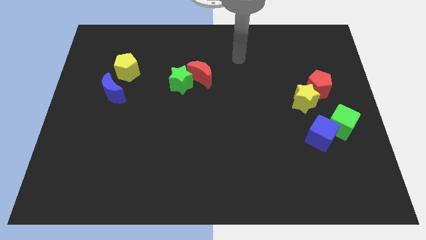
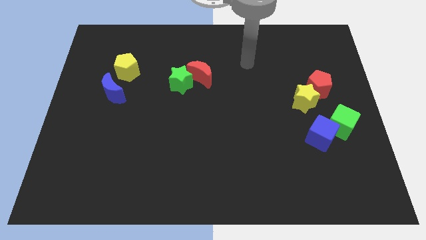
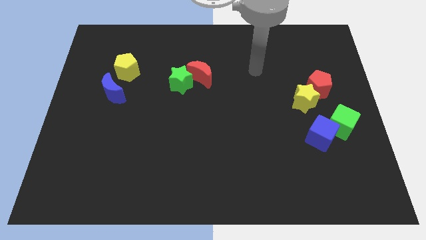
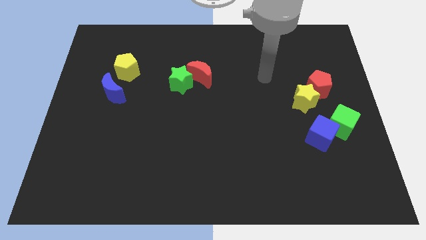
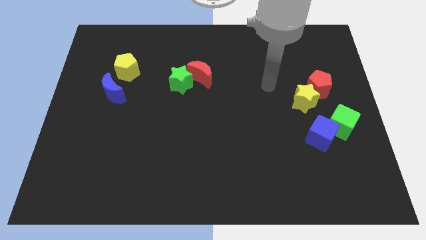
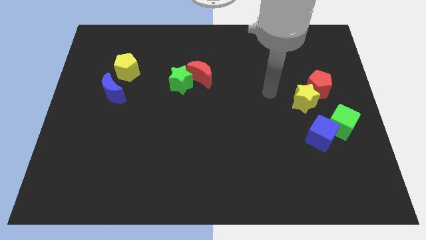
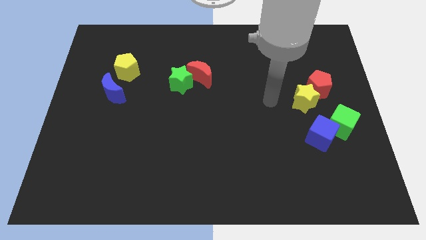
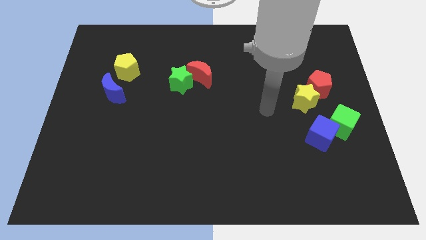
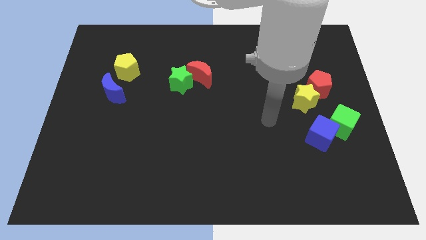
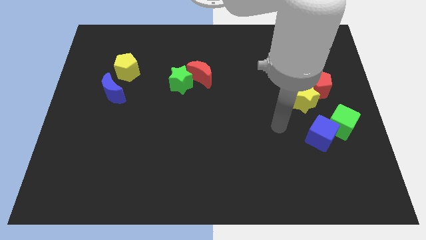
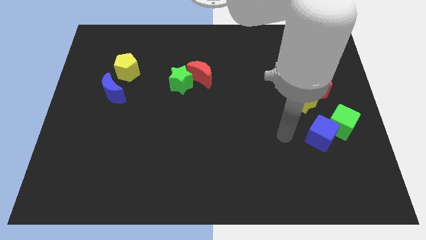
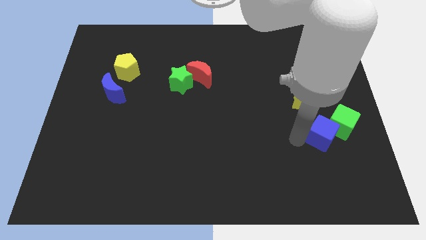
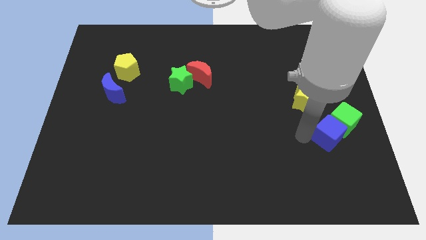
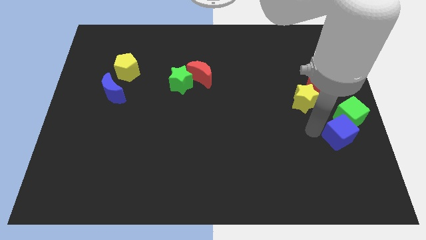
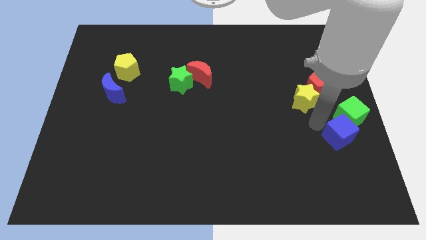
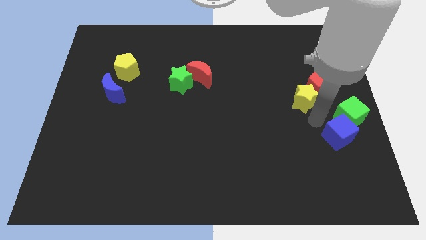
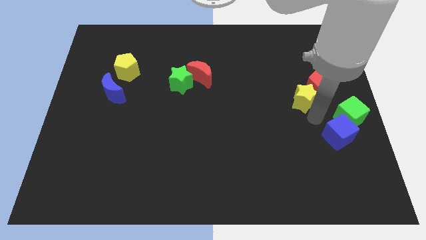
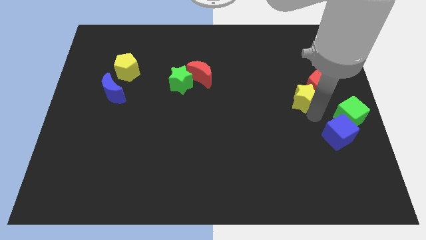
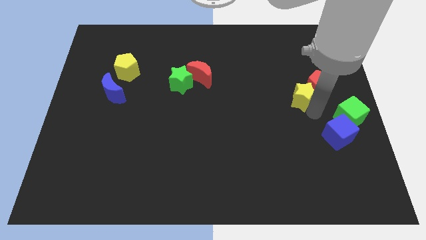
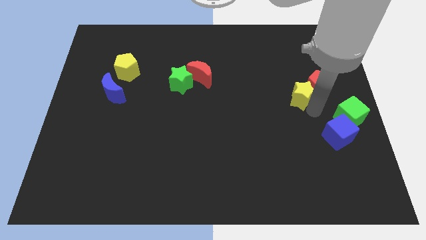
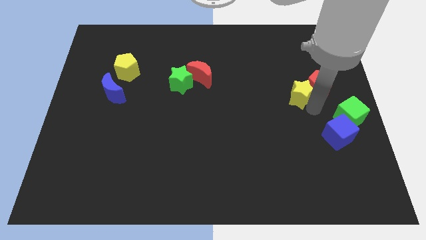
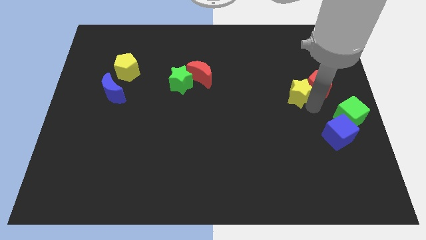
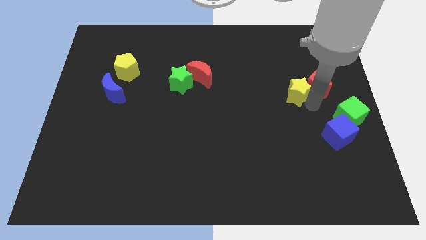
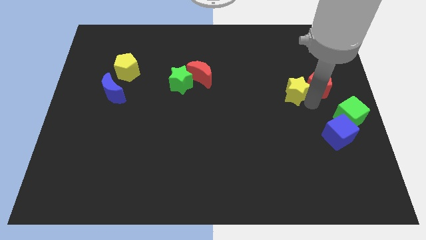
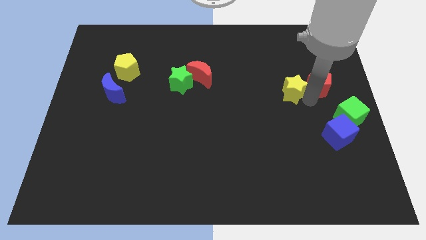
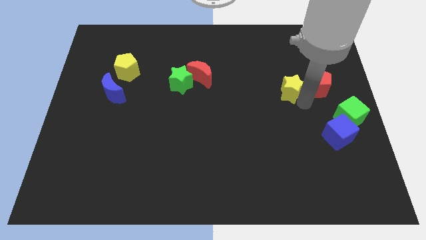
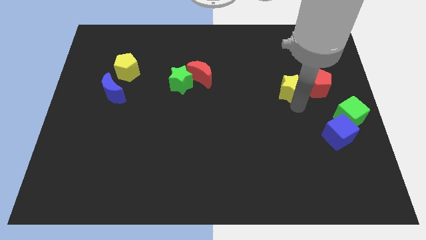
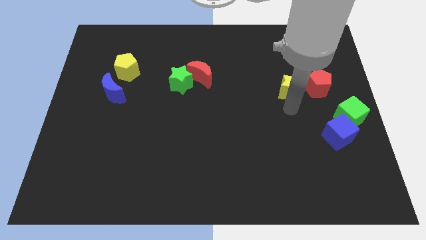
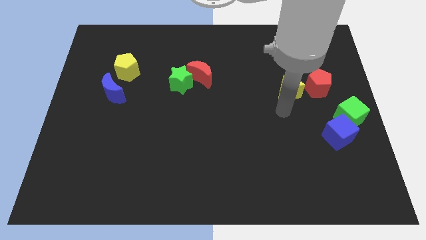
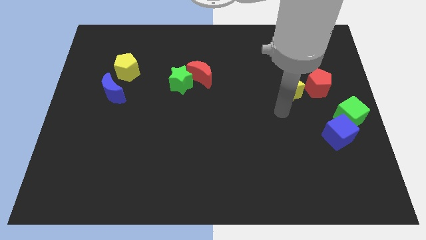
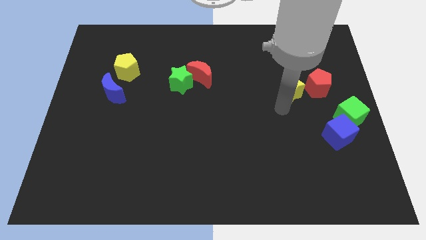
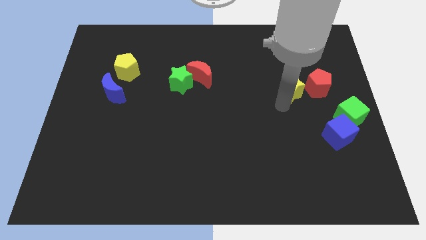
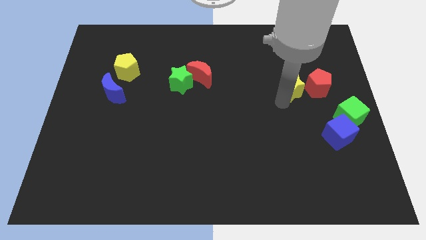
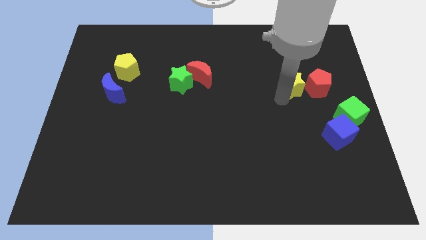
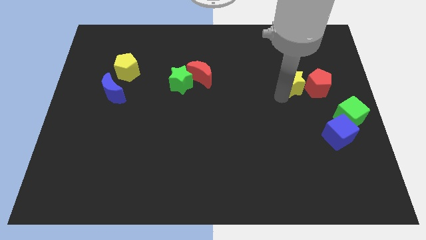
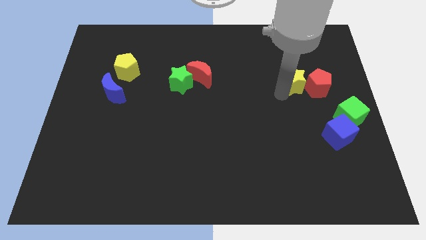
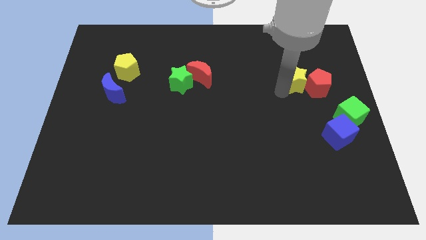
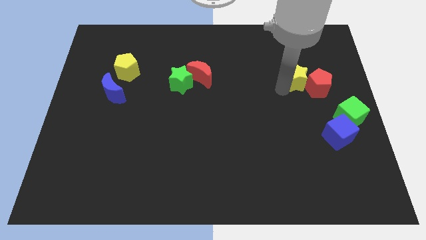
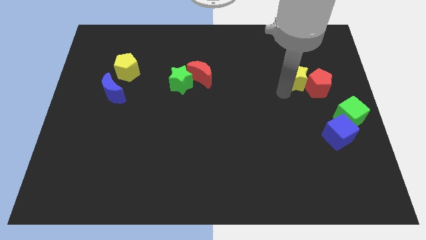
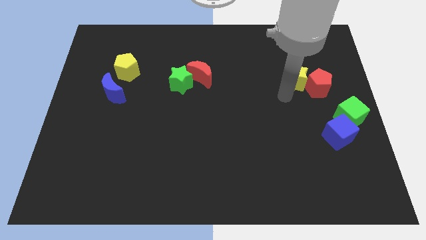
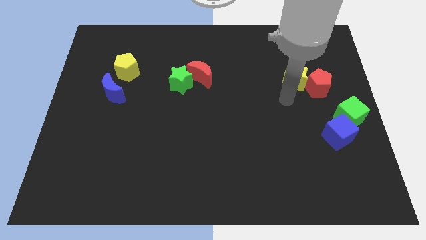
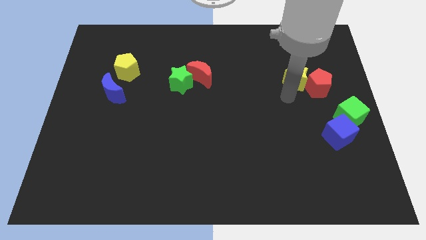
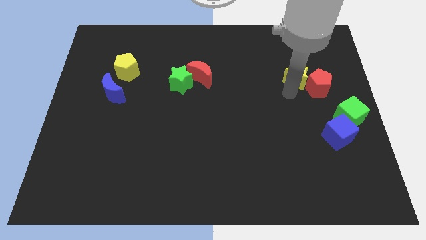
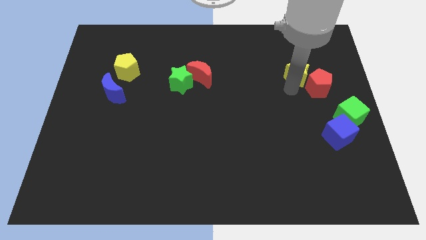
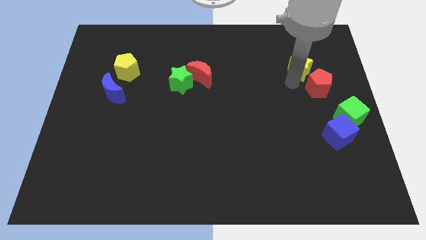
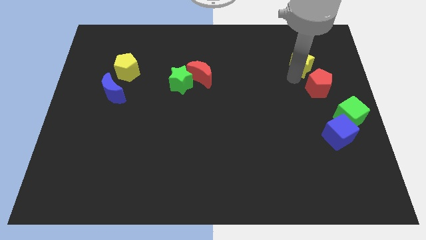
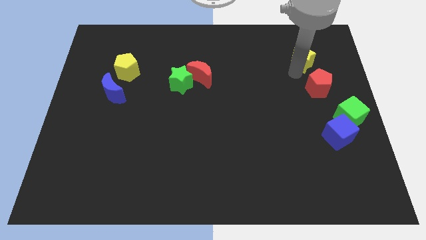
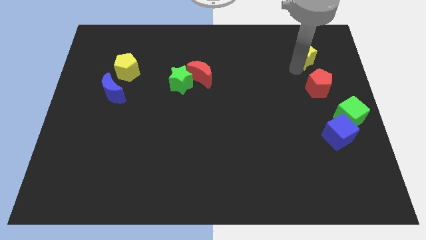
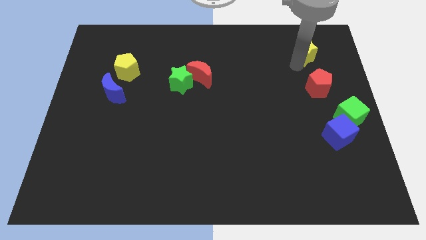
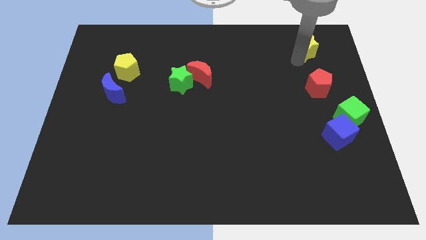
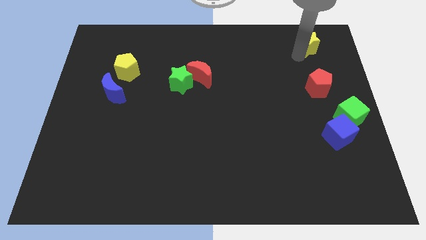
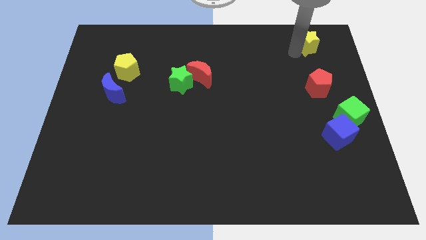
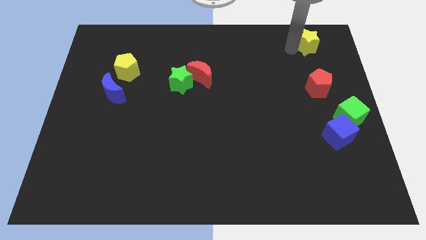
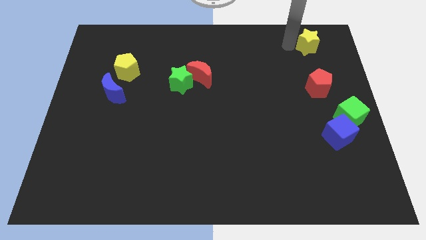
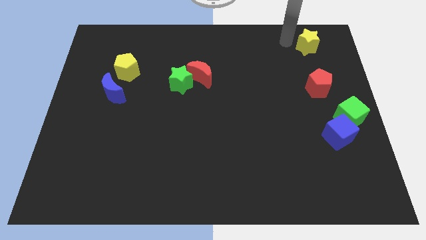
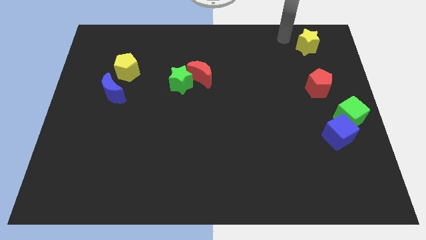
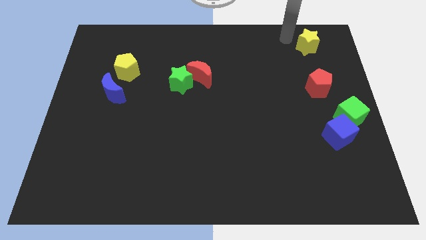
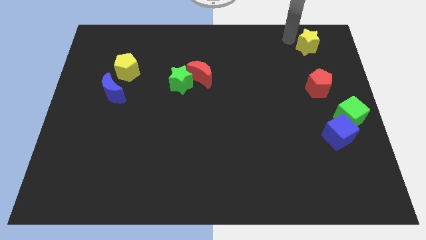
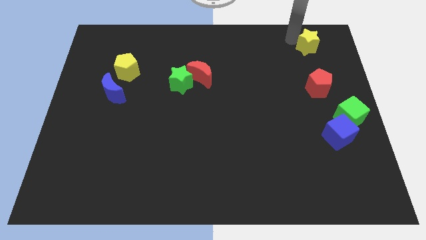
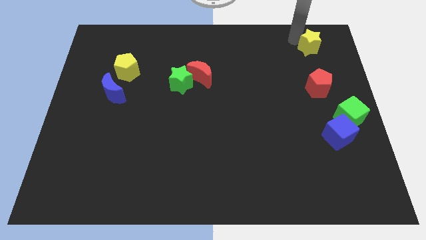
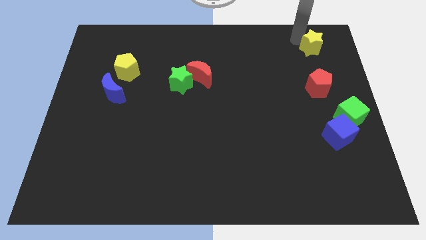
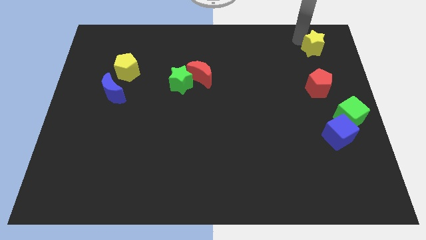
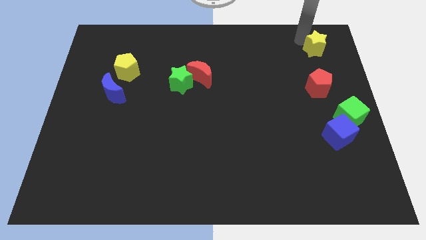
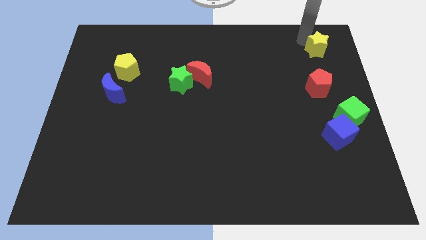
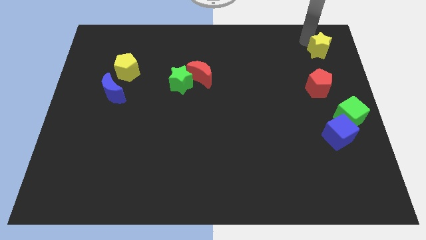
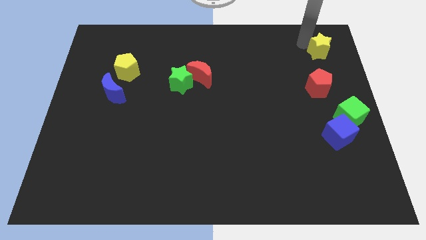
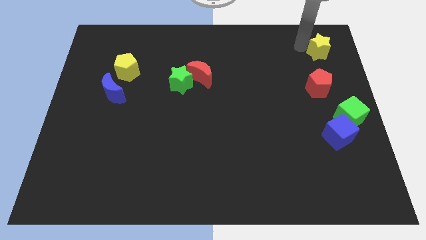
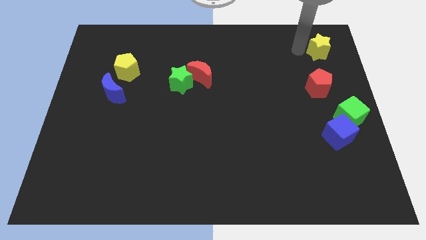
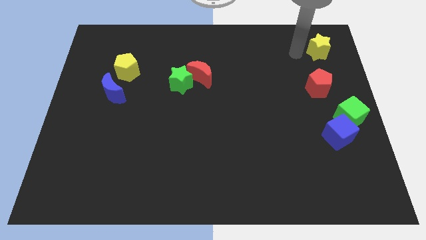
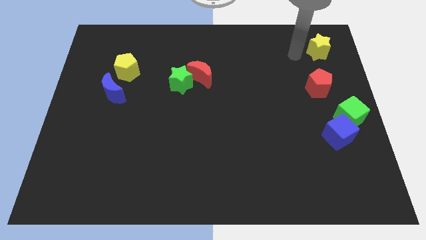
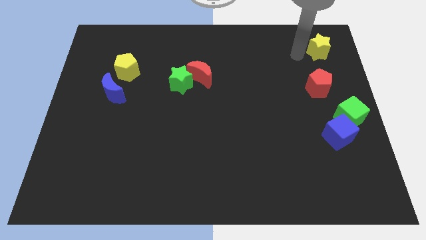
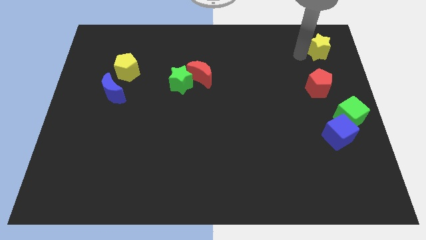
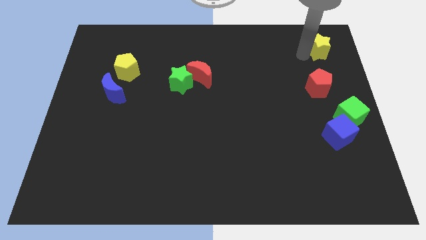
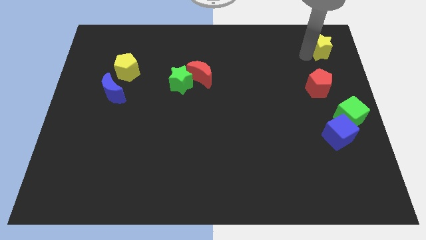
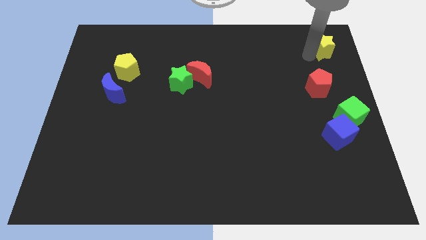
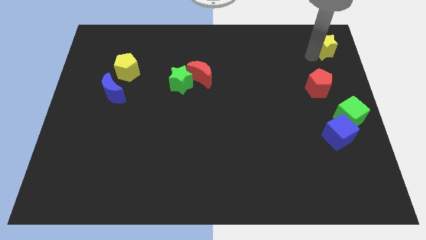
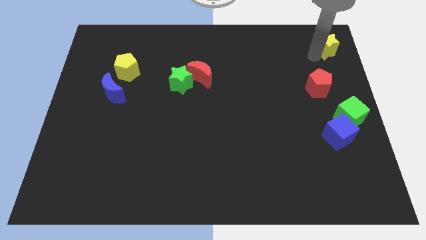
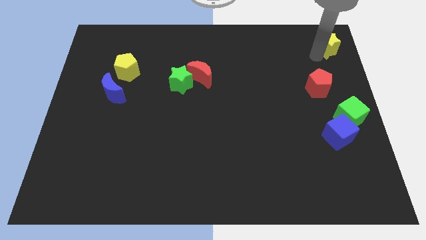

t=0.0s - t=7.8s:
put the yellow star to the top right corner
